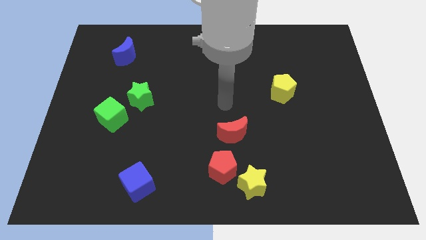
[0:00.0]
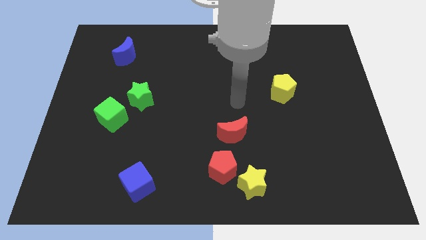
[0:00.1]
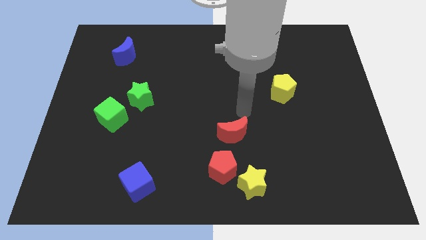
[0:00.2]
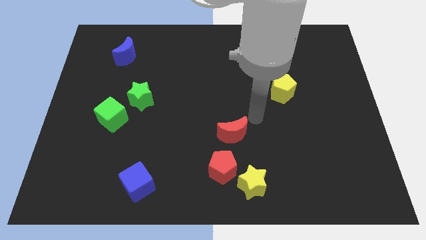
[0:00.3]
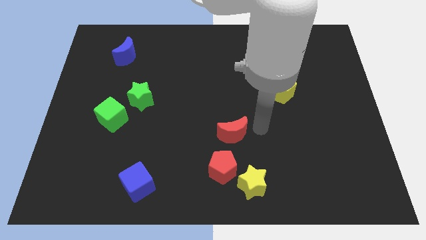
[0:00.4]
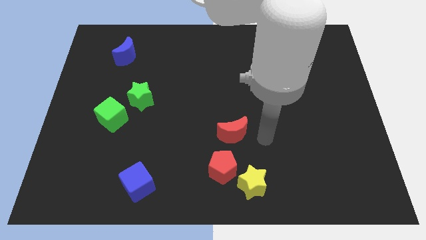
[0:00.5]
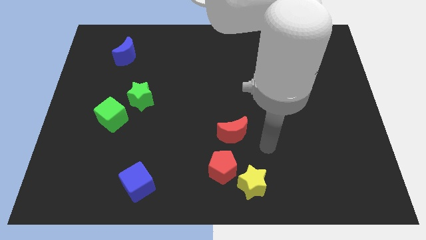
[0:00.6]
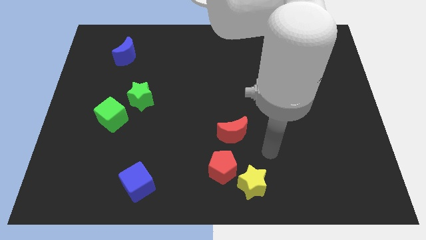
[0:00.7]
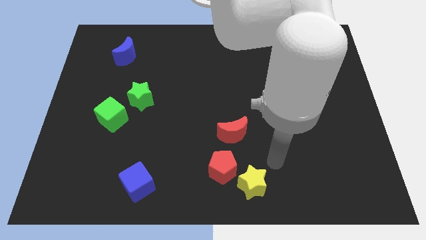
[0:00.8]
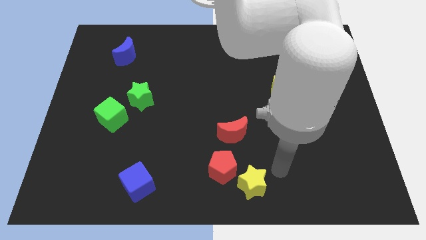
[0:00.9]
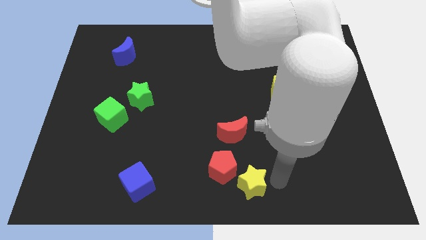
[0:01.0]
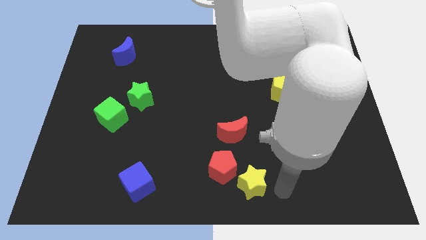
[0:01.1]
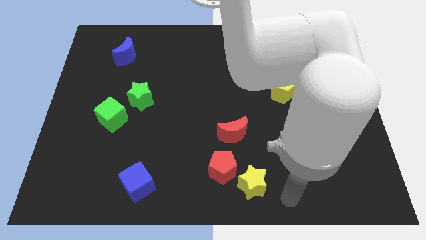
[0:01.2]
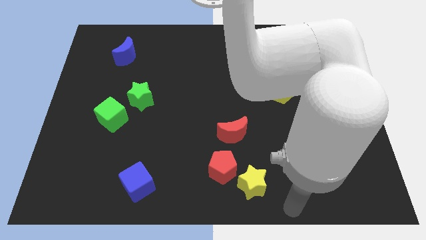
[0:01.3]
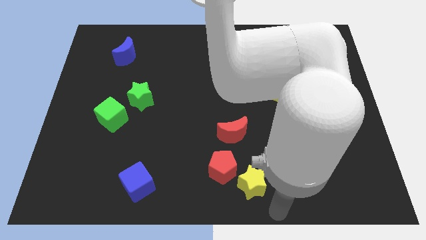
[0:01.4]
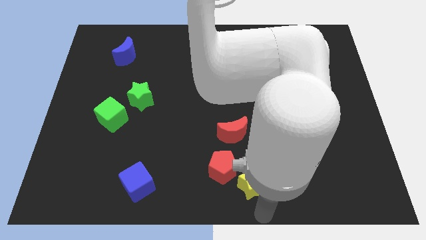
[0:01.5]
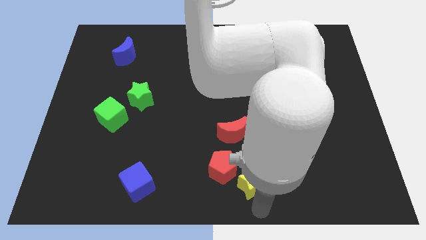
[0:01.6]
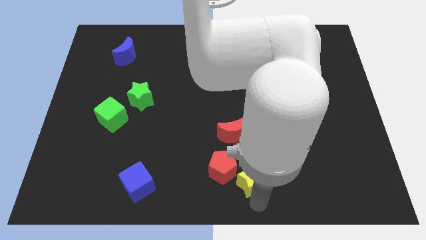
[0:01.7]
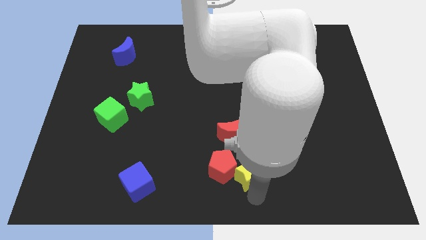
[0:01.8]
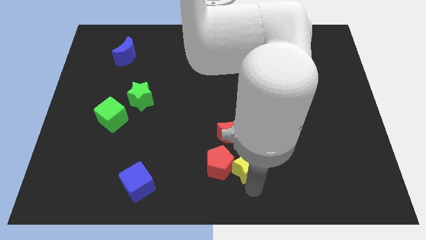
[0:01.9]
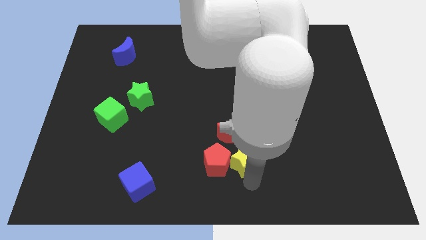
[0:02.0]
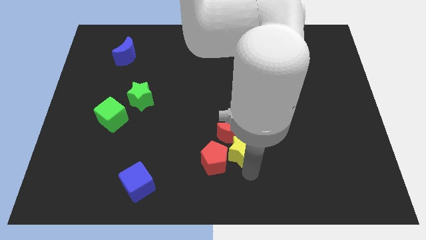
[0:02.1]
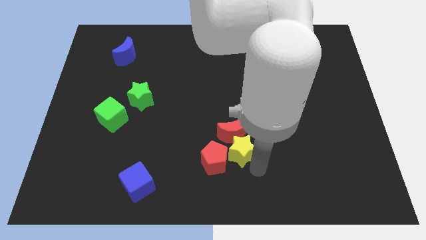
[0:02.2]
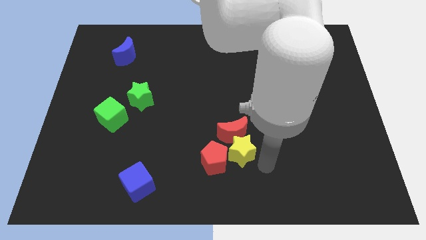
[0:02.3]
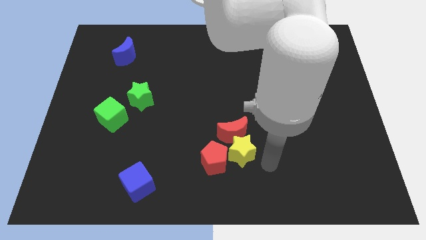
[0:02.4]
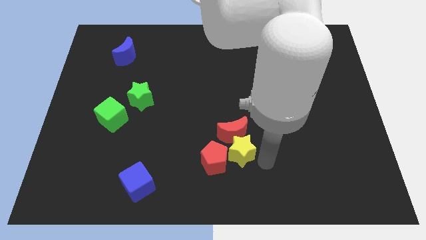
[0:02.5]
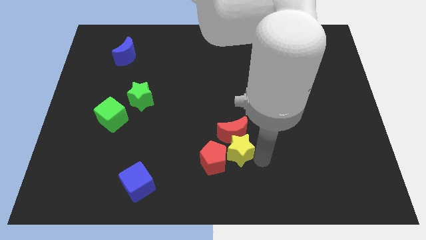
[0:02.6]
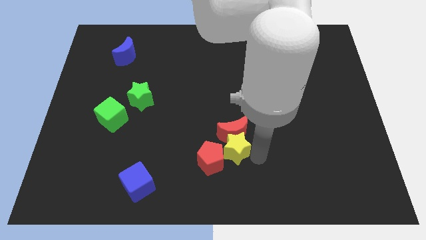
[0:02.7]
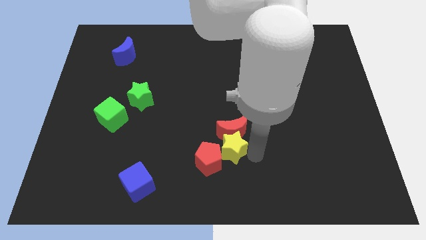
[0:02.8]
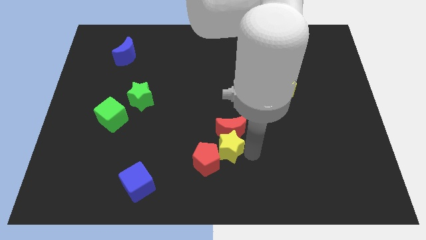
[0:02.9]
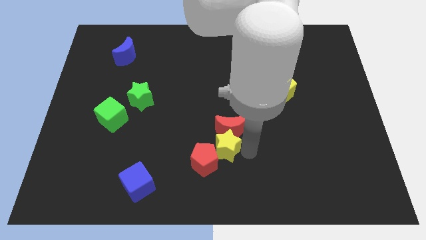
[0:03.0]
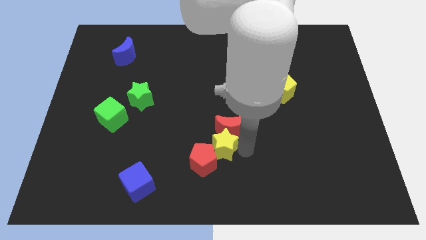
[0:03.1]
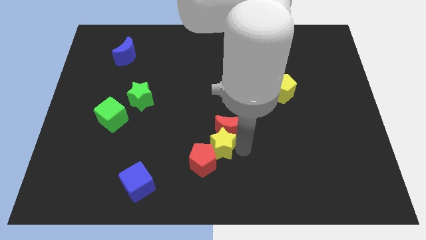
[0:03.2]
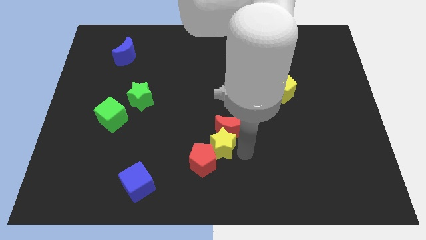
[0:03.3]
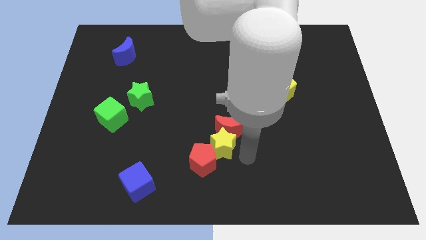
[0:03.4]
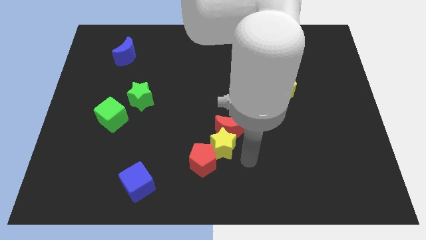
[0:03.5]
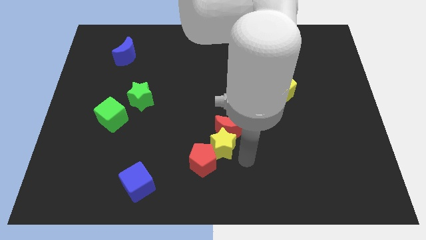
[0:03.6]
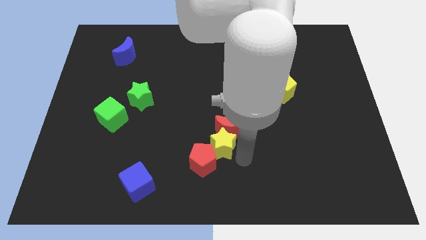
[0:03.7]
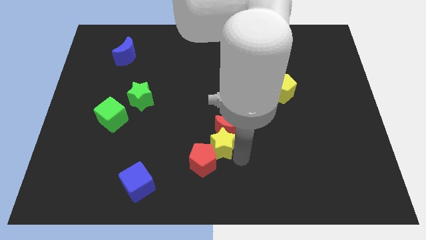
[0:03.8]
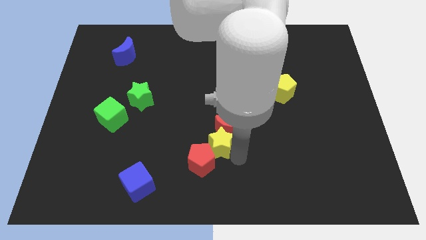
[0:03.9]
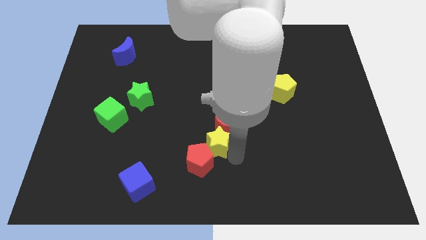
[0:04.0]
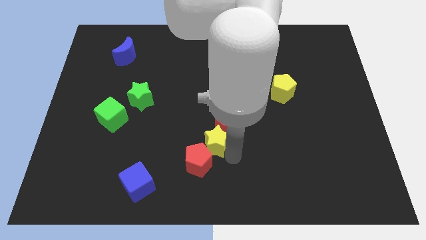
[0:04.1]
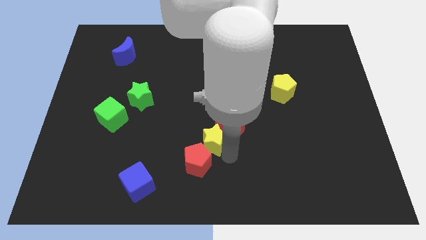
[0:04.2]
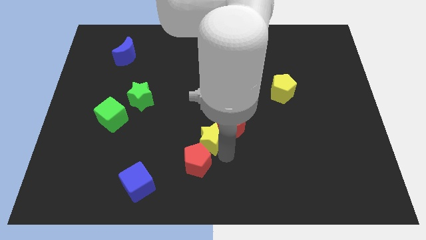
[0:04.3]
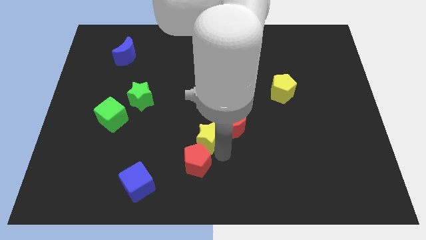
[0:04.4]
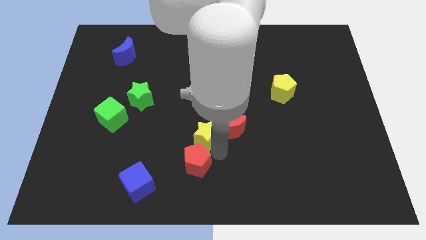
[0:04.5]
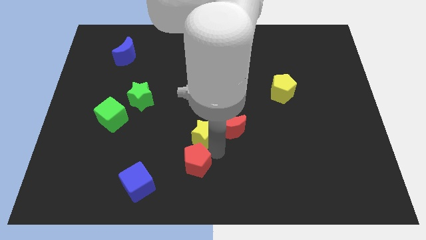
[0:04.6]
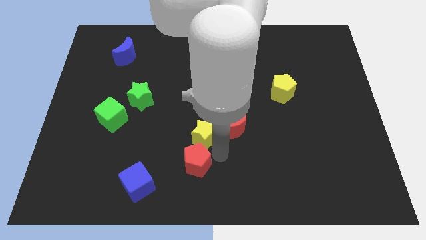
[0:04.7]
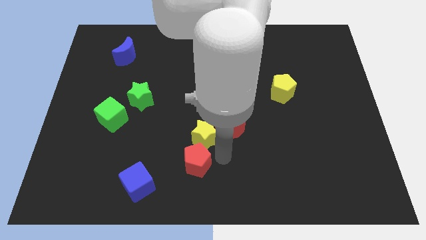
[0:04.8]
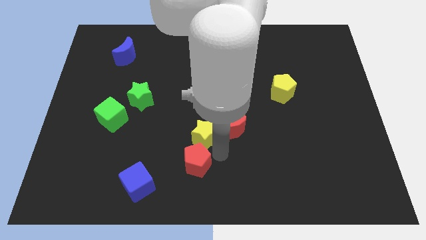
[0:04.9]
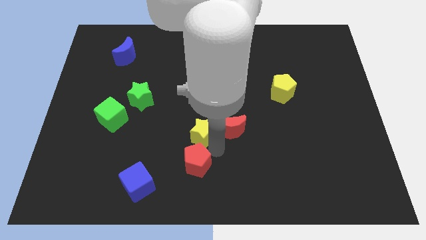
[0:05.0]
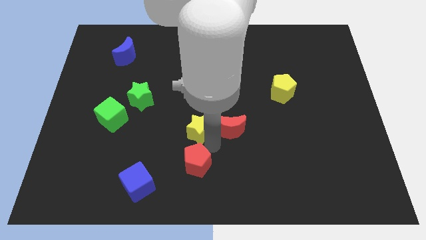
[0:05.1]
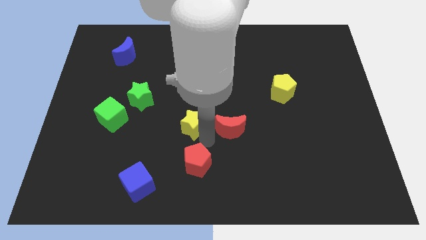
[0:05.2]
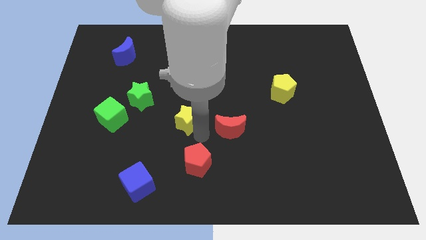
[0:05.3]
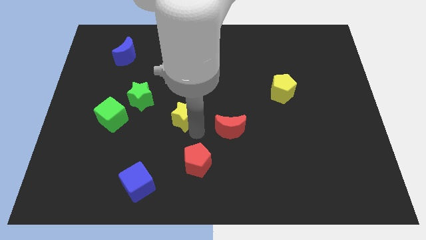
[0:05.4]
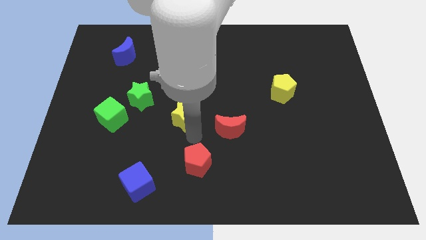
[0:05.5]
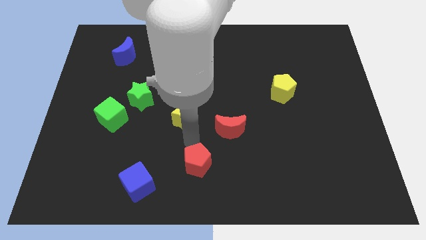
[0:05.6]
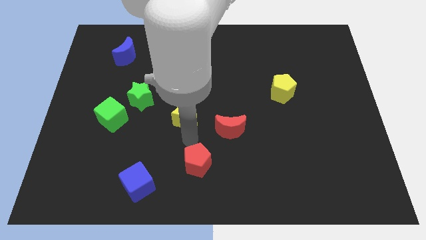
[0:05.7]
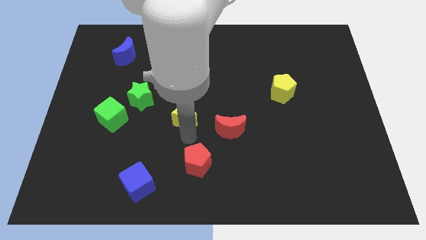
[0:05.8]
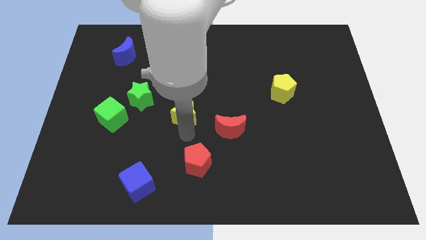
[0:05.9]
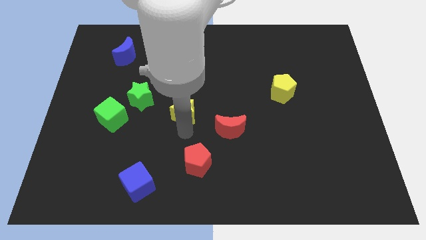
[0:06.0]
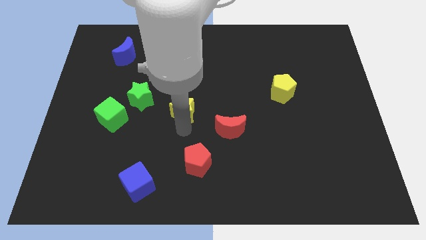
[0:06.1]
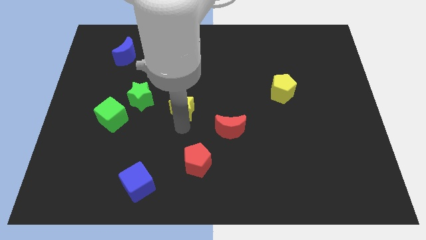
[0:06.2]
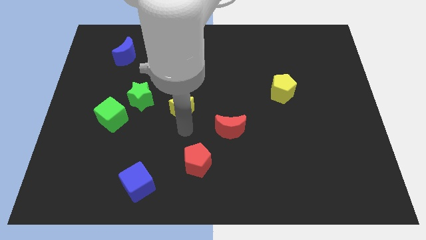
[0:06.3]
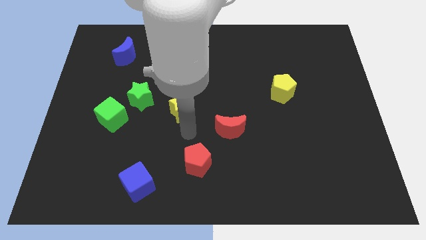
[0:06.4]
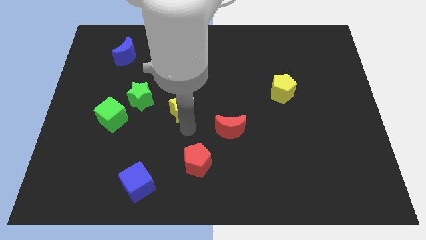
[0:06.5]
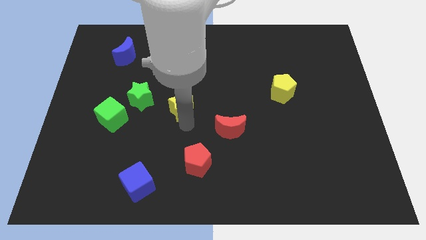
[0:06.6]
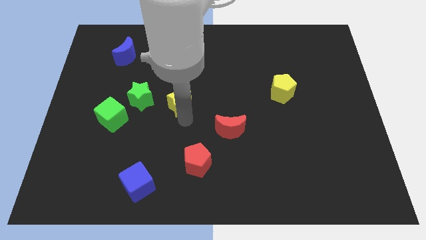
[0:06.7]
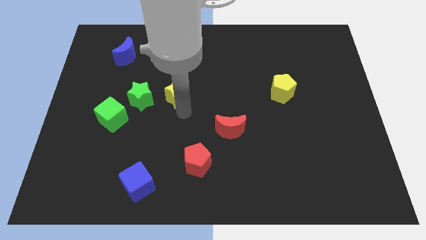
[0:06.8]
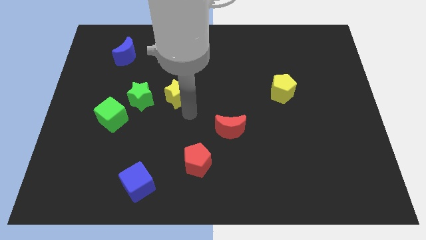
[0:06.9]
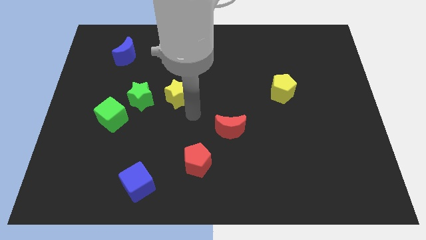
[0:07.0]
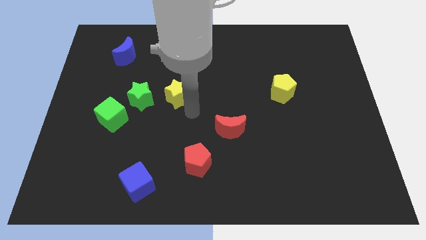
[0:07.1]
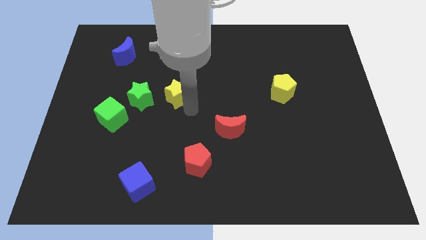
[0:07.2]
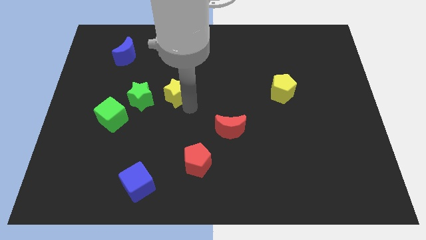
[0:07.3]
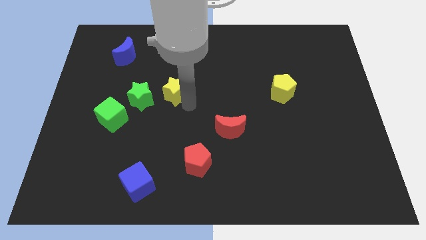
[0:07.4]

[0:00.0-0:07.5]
push the yellow star to the top right of the green star
